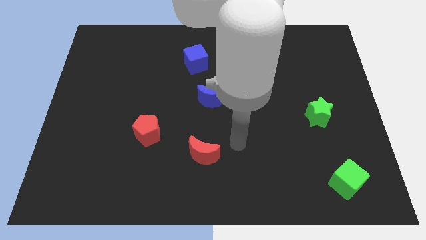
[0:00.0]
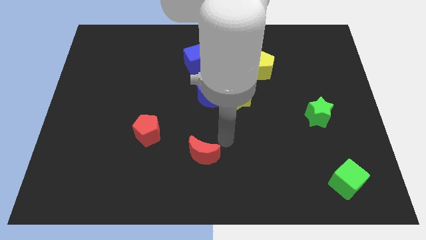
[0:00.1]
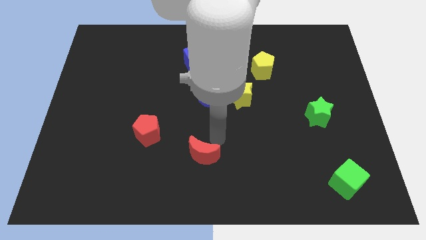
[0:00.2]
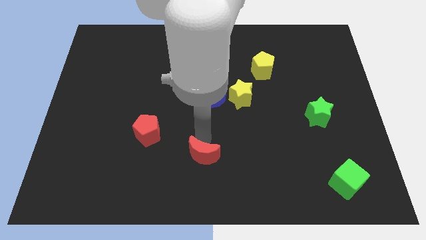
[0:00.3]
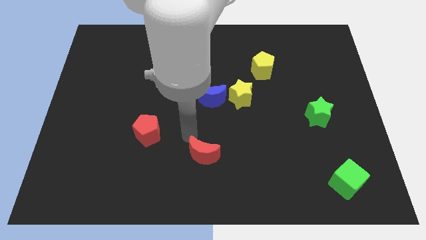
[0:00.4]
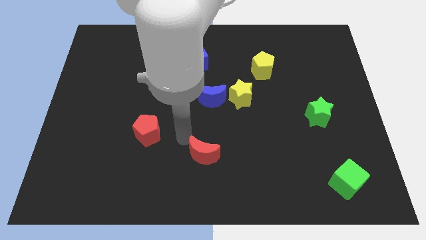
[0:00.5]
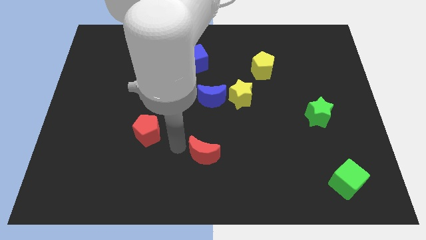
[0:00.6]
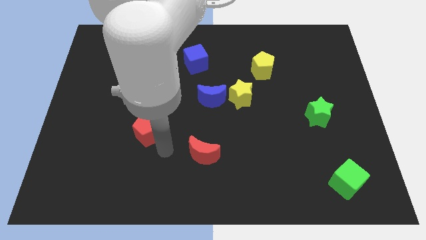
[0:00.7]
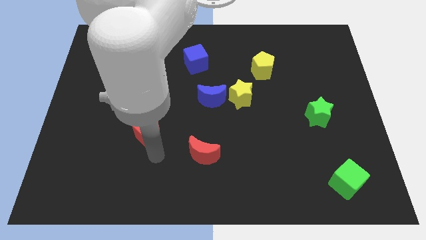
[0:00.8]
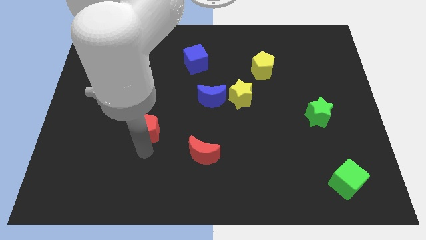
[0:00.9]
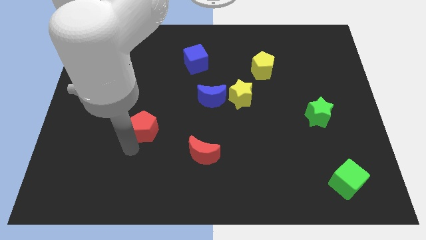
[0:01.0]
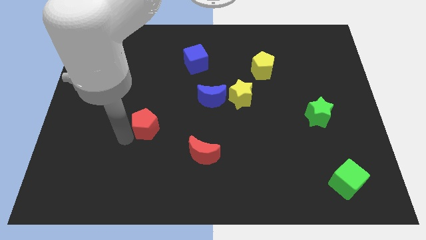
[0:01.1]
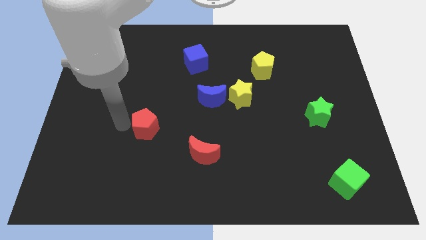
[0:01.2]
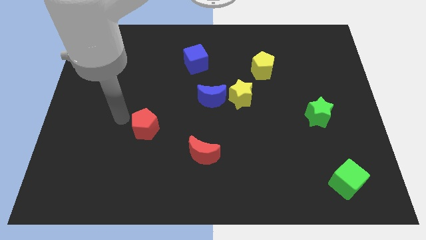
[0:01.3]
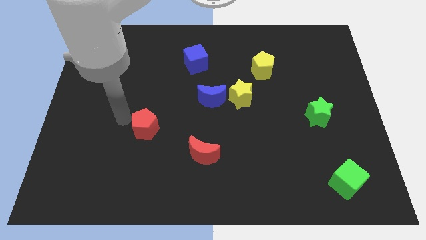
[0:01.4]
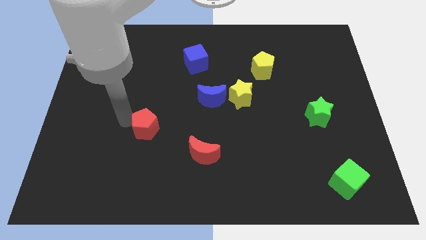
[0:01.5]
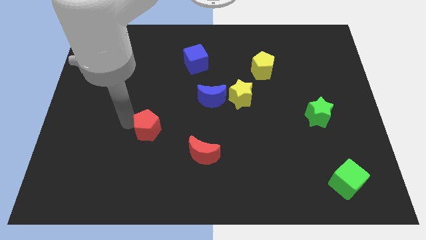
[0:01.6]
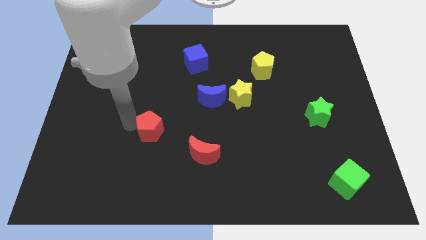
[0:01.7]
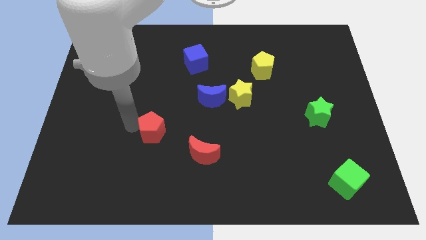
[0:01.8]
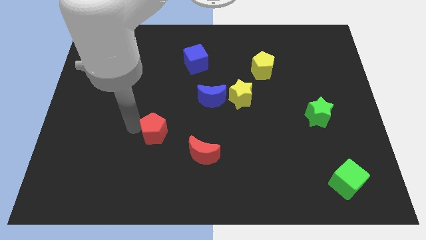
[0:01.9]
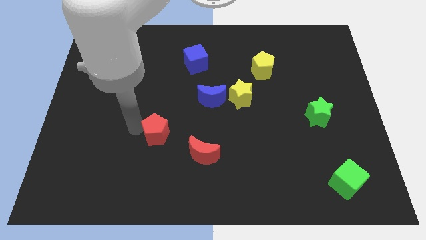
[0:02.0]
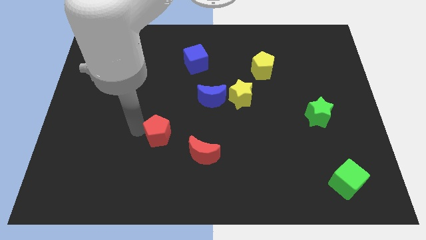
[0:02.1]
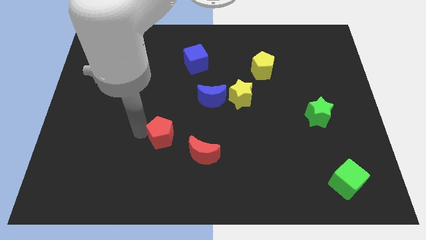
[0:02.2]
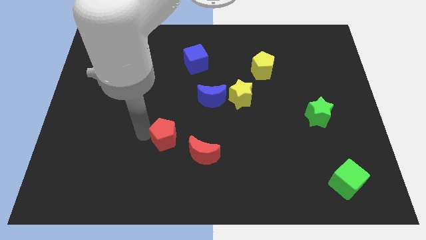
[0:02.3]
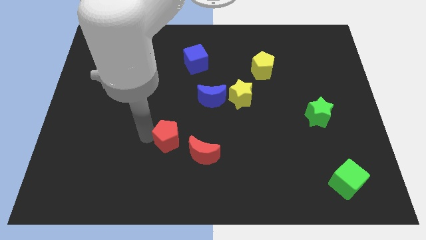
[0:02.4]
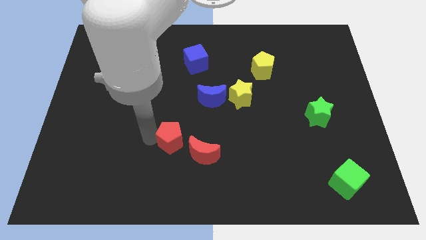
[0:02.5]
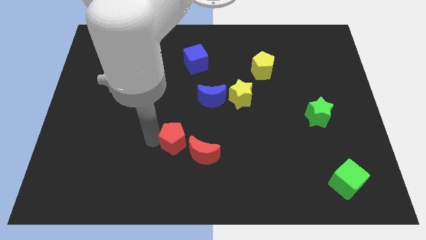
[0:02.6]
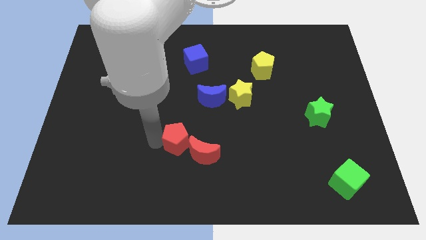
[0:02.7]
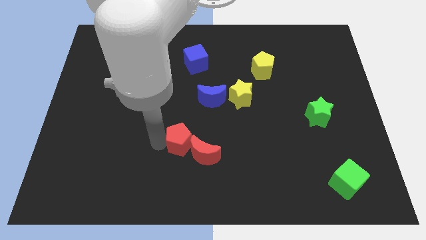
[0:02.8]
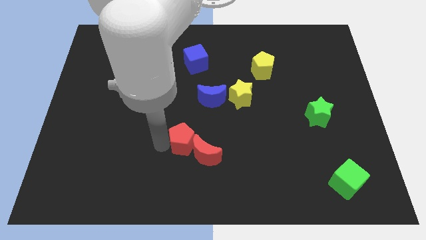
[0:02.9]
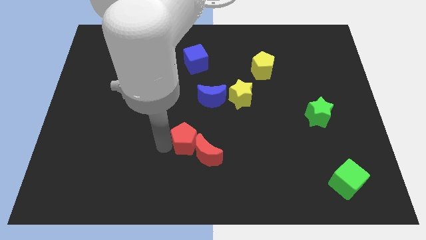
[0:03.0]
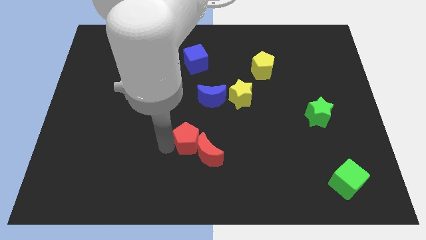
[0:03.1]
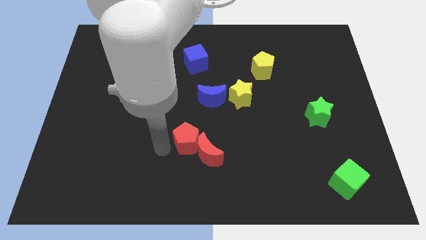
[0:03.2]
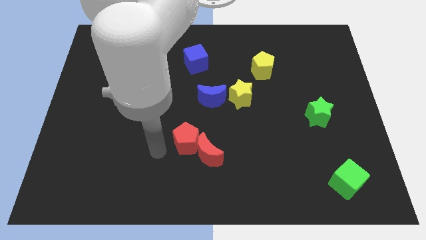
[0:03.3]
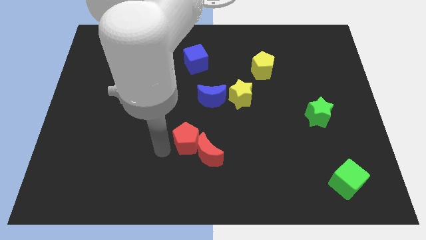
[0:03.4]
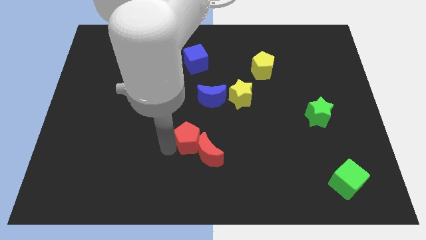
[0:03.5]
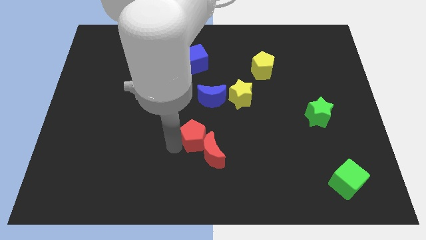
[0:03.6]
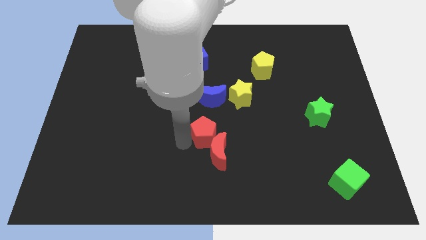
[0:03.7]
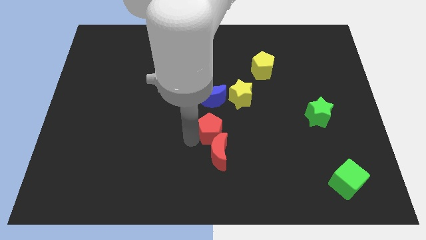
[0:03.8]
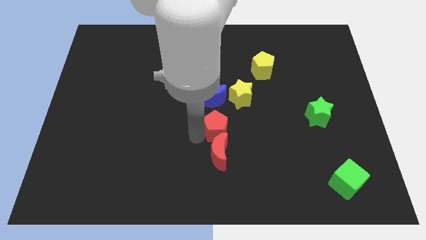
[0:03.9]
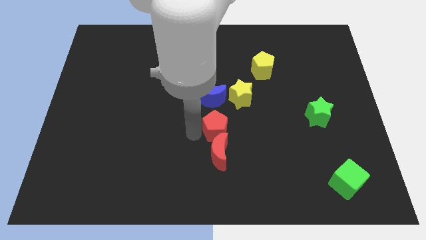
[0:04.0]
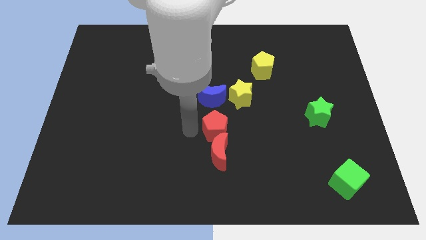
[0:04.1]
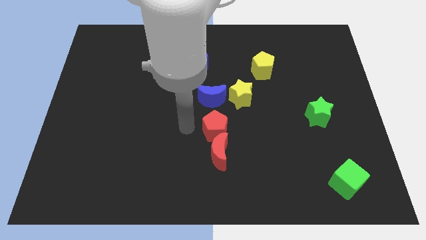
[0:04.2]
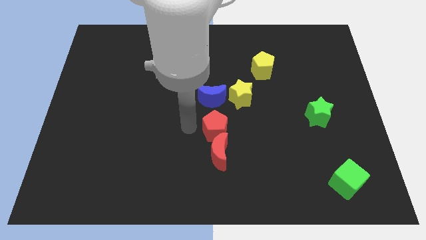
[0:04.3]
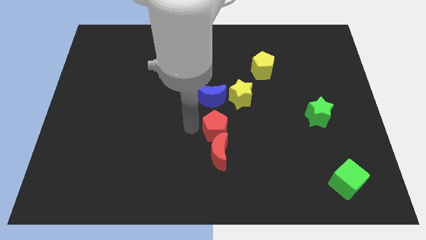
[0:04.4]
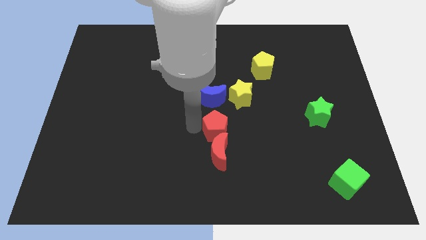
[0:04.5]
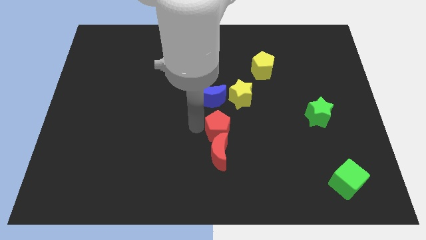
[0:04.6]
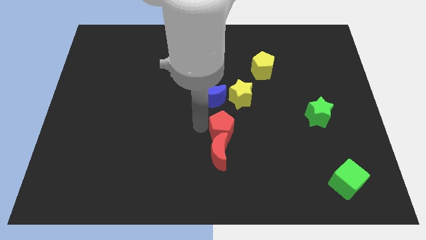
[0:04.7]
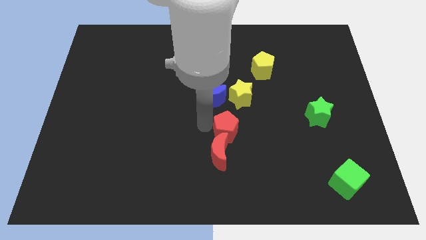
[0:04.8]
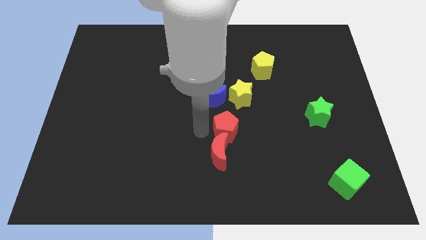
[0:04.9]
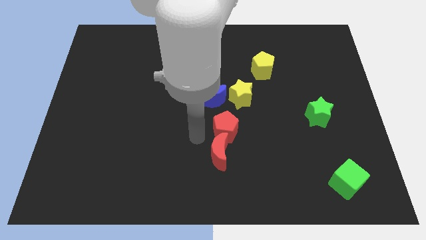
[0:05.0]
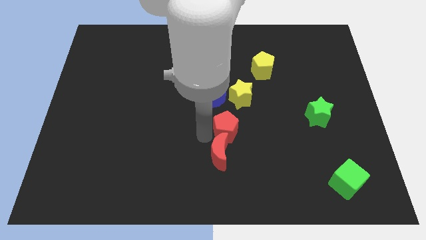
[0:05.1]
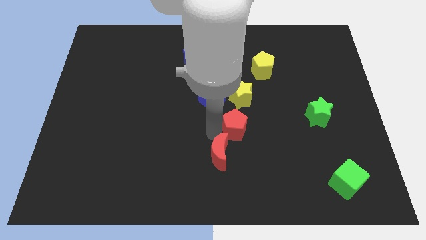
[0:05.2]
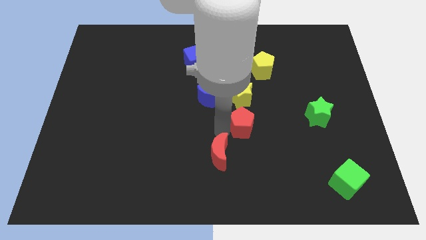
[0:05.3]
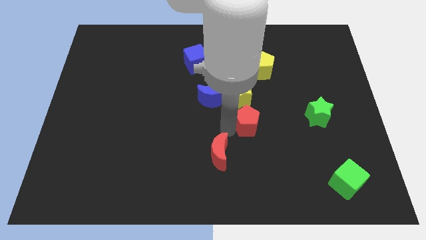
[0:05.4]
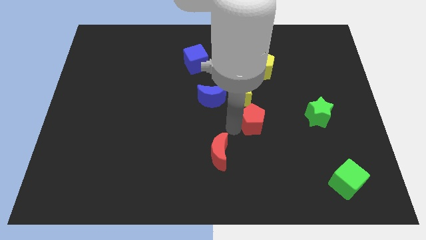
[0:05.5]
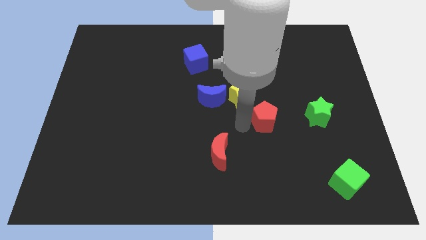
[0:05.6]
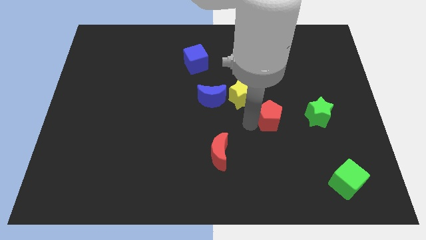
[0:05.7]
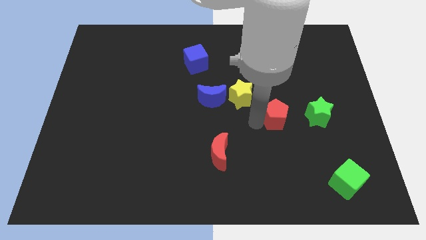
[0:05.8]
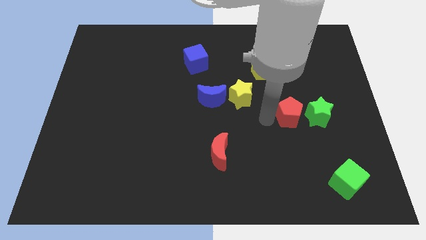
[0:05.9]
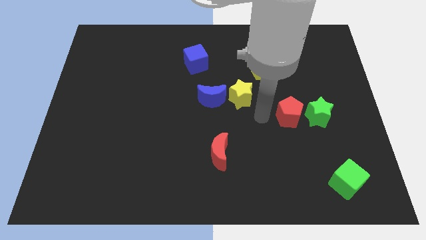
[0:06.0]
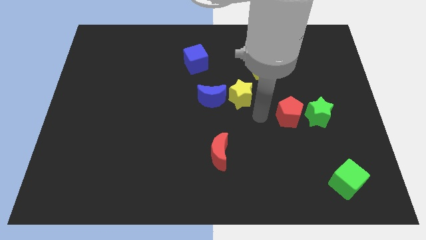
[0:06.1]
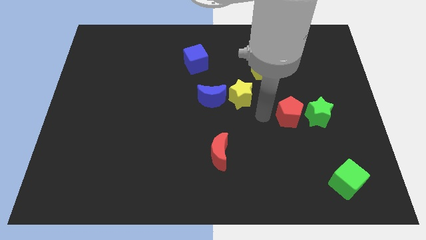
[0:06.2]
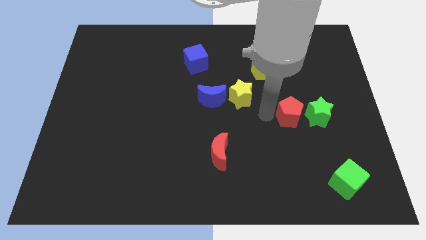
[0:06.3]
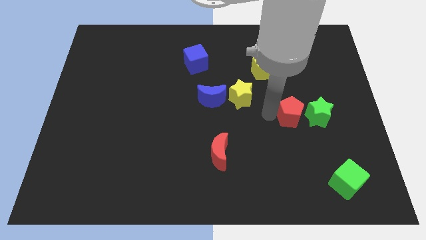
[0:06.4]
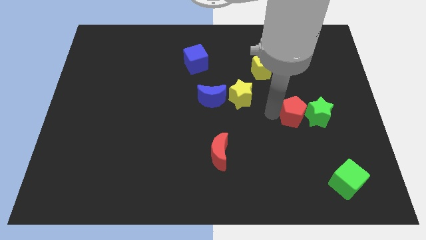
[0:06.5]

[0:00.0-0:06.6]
move the red pentagon to the green star

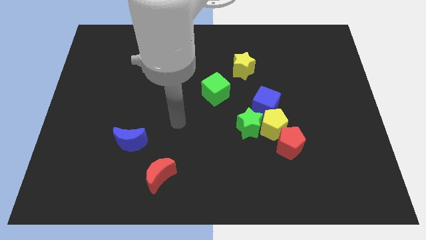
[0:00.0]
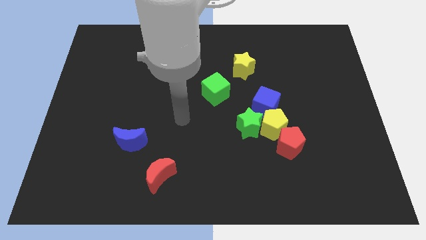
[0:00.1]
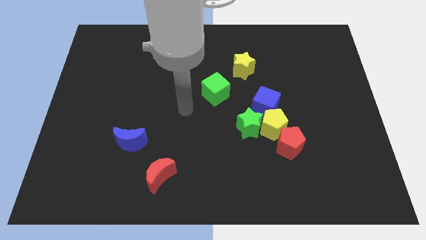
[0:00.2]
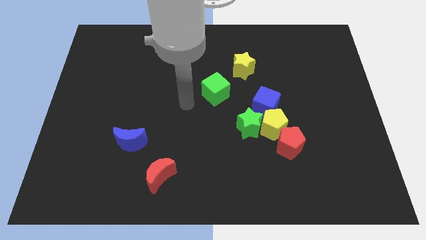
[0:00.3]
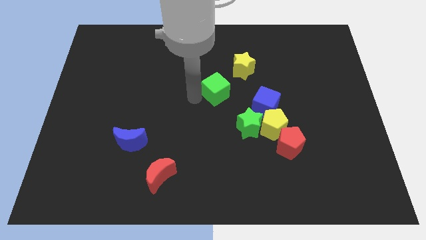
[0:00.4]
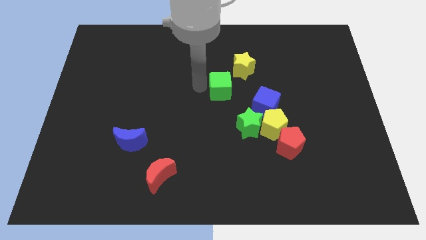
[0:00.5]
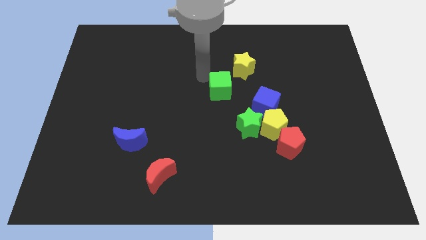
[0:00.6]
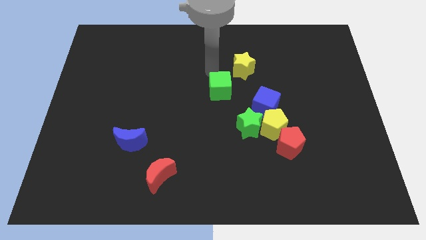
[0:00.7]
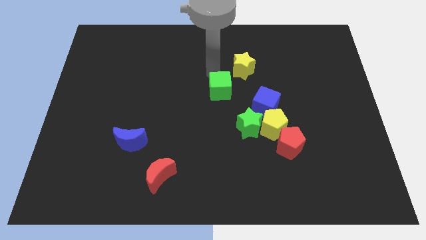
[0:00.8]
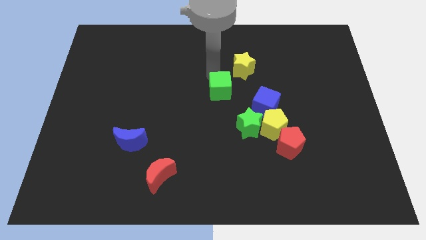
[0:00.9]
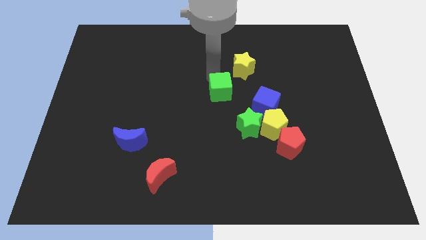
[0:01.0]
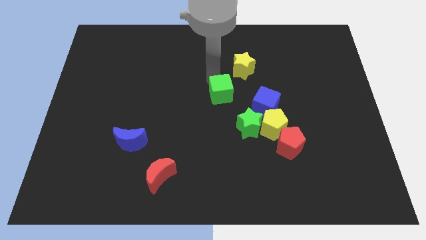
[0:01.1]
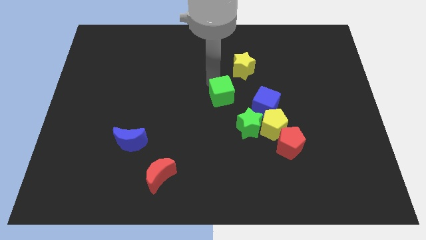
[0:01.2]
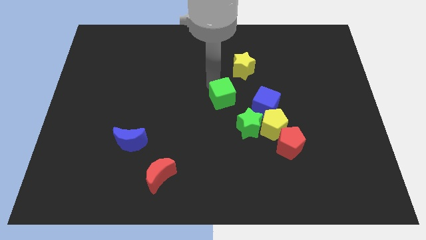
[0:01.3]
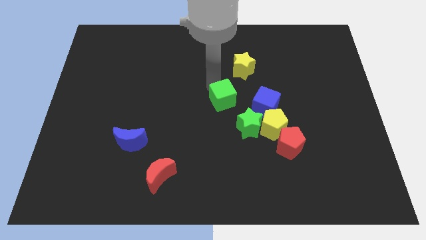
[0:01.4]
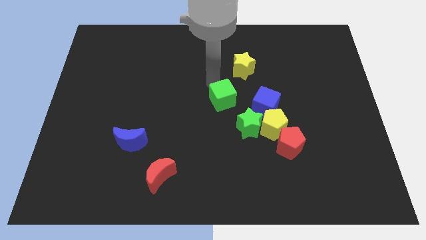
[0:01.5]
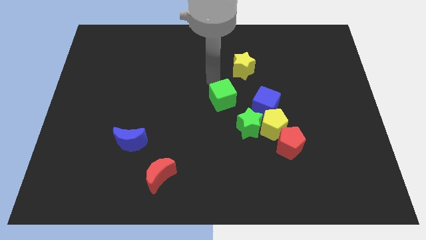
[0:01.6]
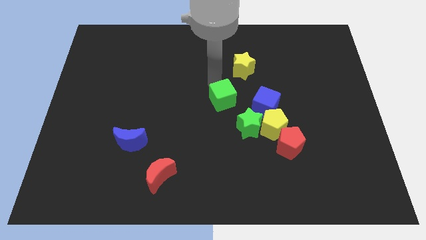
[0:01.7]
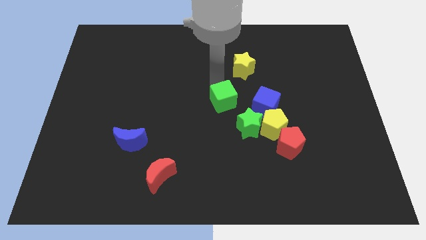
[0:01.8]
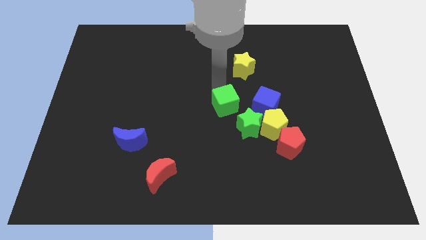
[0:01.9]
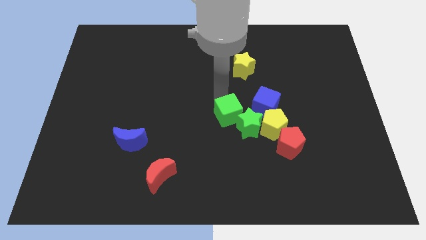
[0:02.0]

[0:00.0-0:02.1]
put the green cube towards the green star
